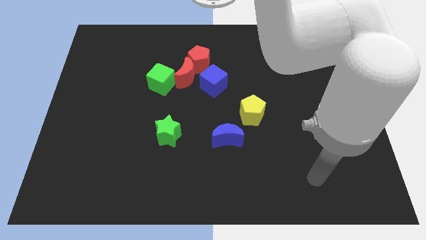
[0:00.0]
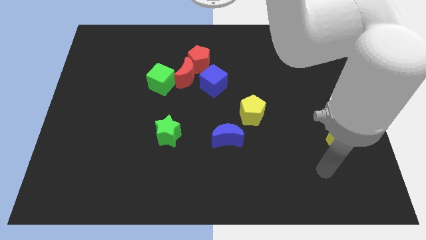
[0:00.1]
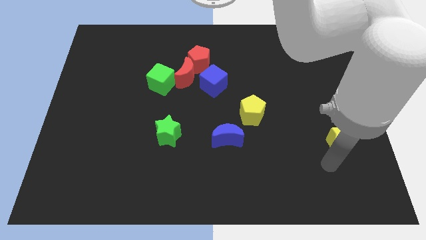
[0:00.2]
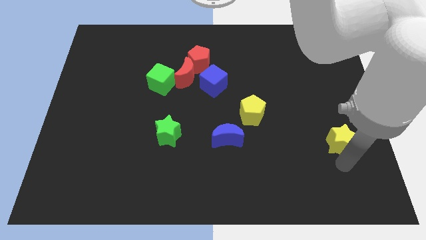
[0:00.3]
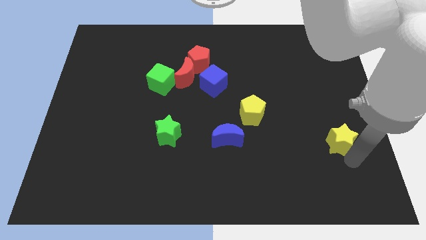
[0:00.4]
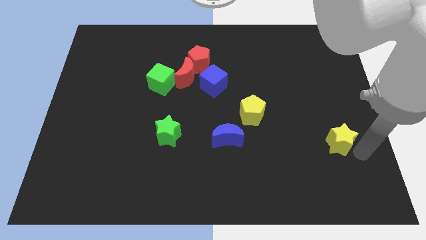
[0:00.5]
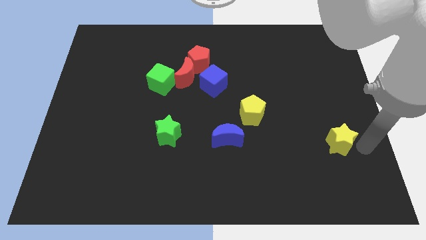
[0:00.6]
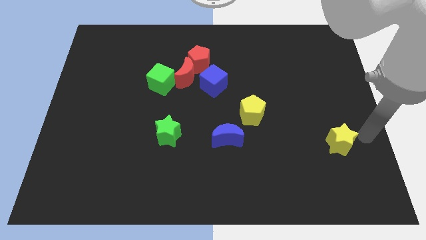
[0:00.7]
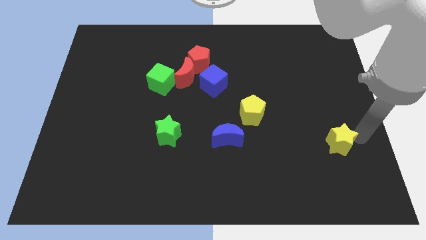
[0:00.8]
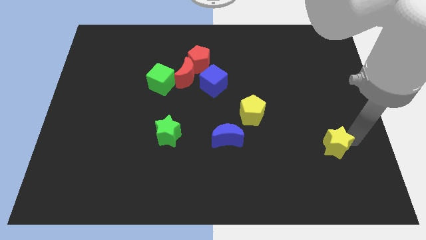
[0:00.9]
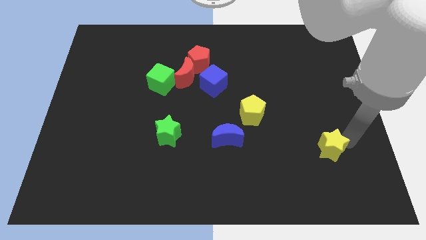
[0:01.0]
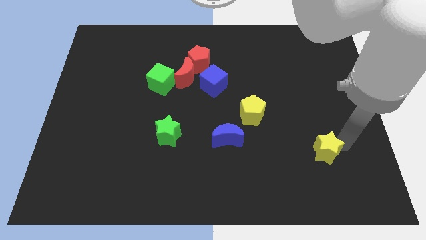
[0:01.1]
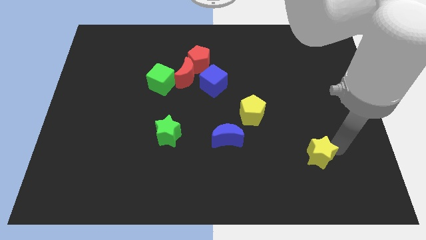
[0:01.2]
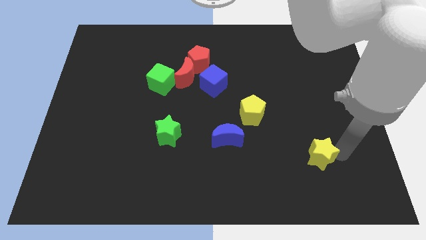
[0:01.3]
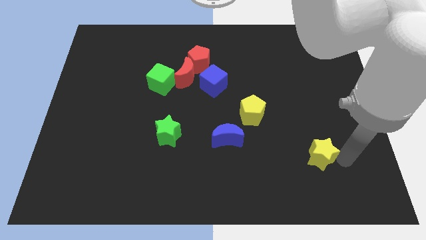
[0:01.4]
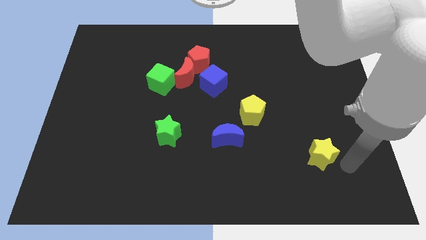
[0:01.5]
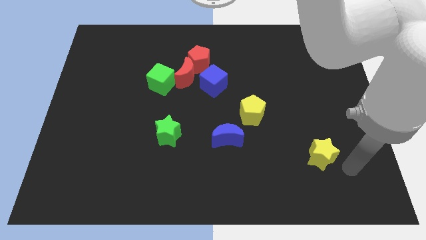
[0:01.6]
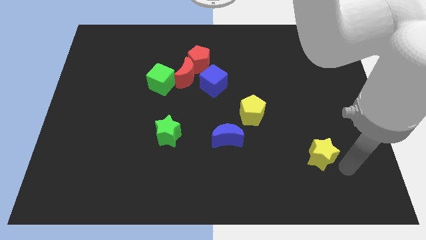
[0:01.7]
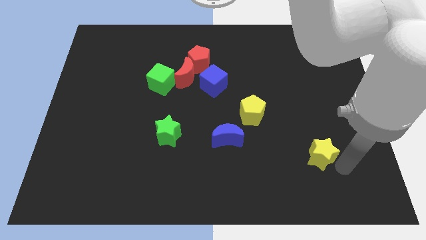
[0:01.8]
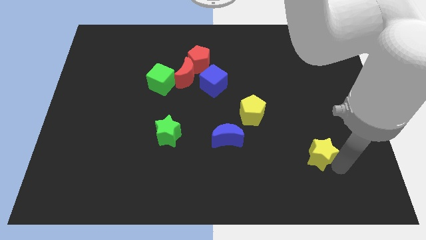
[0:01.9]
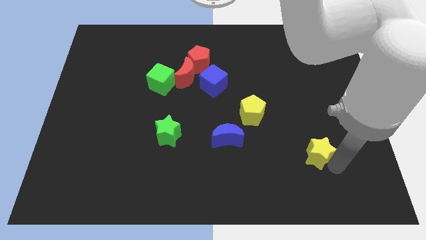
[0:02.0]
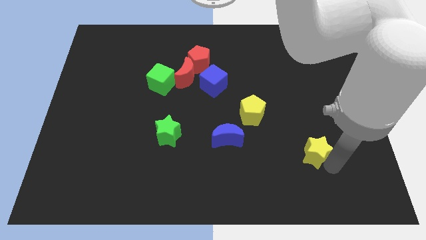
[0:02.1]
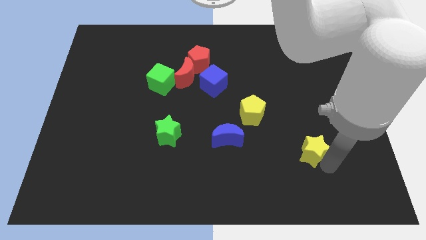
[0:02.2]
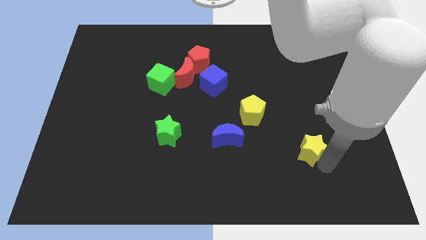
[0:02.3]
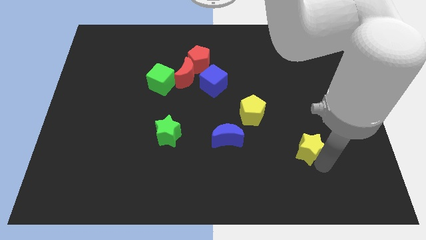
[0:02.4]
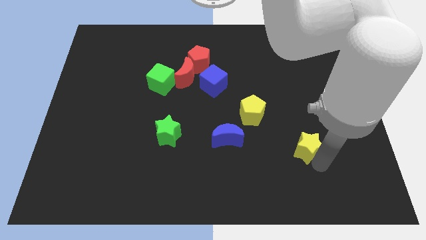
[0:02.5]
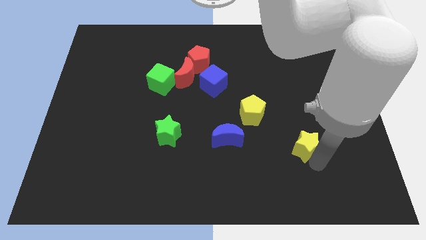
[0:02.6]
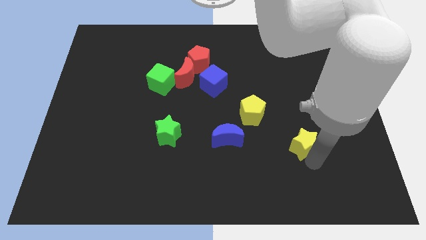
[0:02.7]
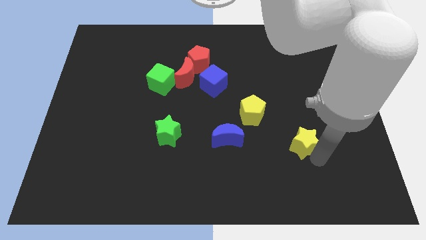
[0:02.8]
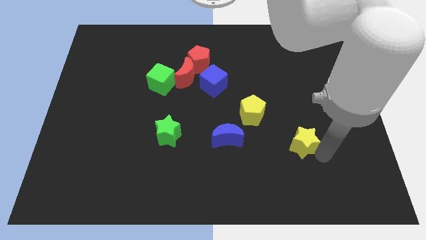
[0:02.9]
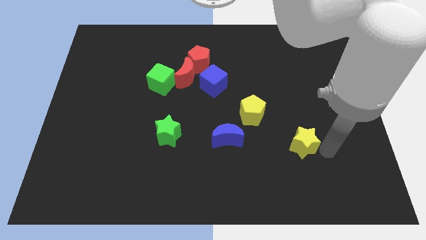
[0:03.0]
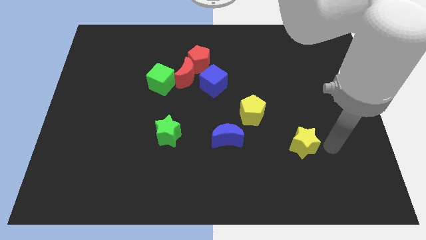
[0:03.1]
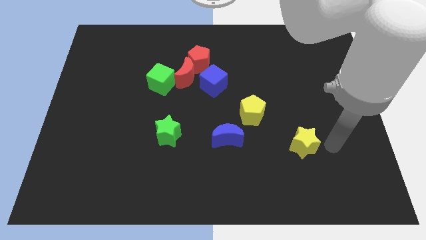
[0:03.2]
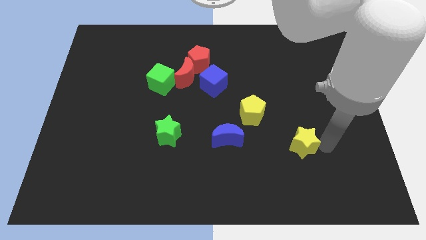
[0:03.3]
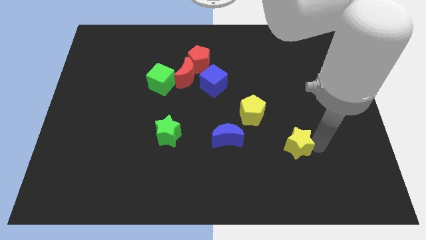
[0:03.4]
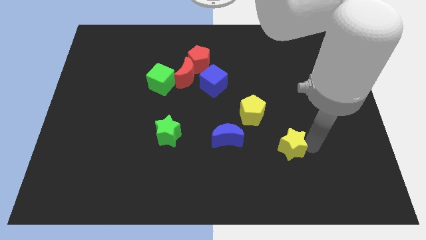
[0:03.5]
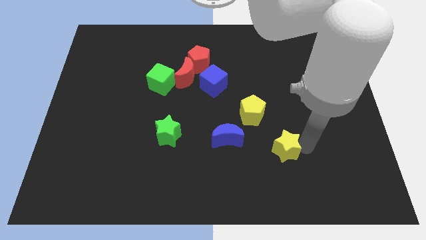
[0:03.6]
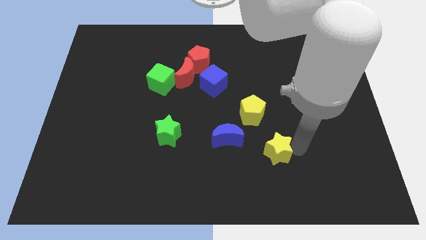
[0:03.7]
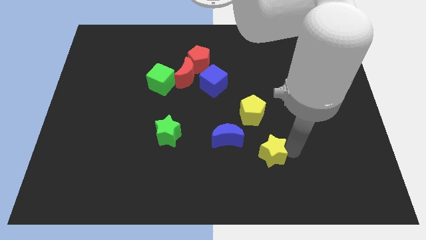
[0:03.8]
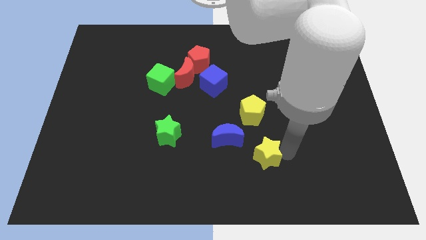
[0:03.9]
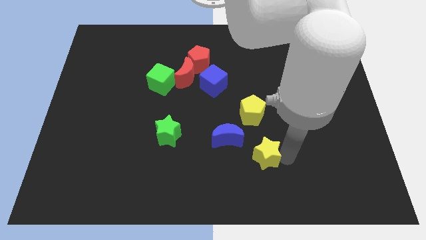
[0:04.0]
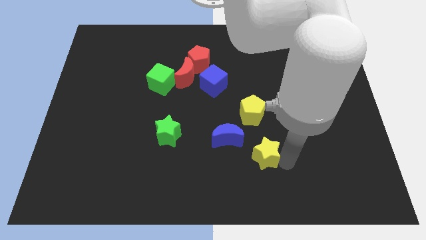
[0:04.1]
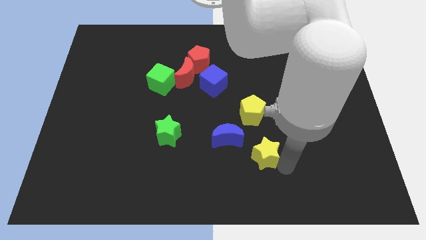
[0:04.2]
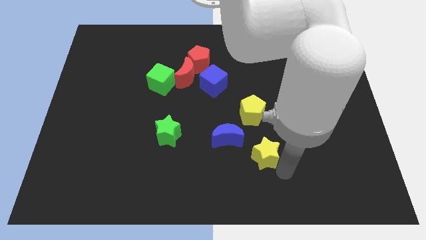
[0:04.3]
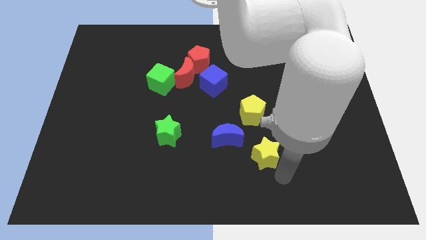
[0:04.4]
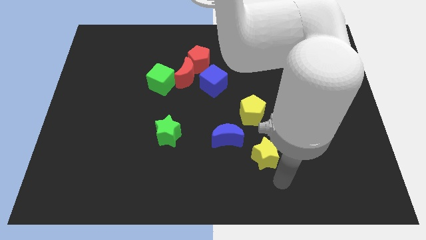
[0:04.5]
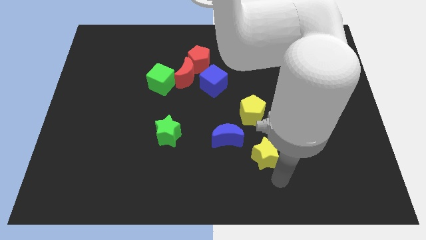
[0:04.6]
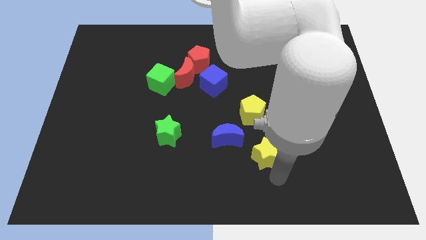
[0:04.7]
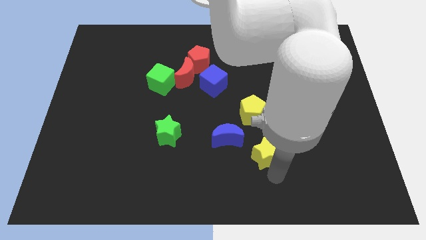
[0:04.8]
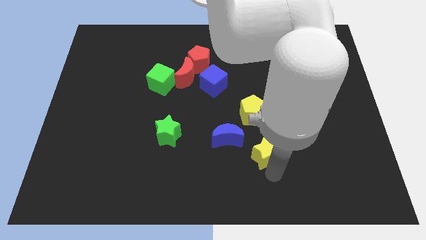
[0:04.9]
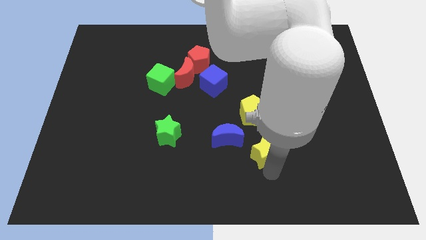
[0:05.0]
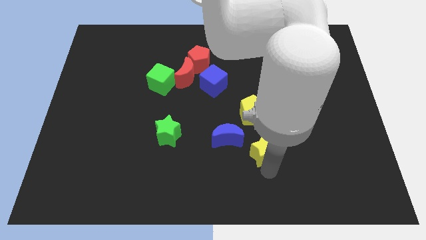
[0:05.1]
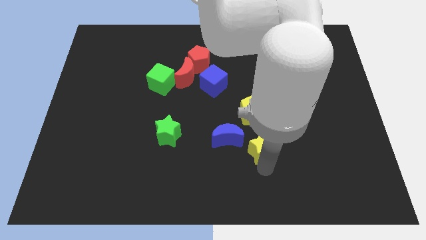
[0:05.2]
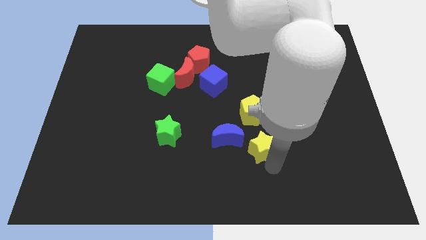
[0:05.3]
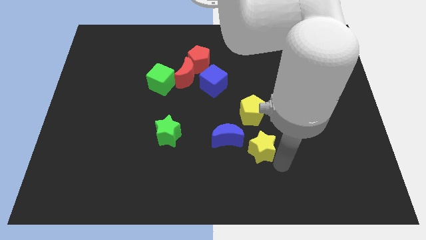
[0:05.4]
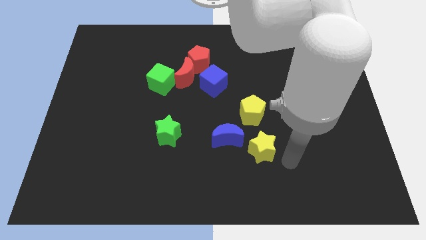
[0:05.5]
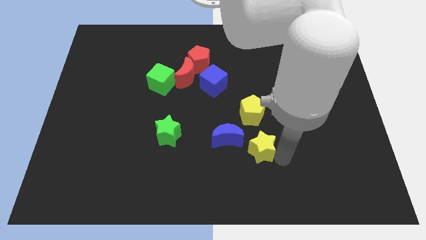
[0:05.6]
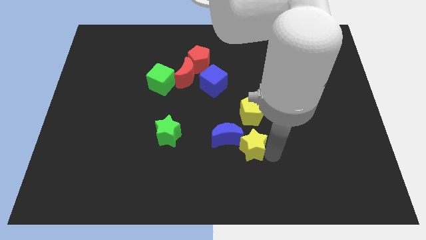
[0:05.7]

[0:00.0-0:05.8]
put the yellow star next to the blue moon

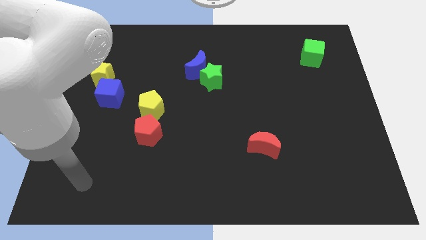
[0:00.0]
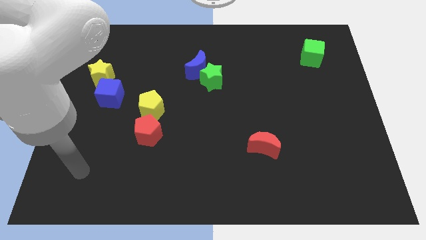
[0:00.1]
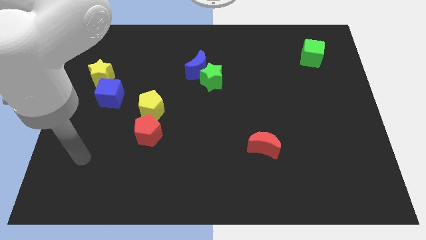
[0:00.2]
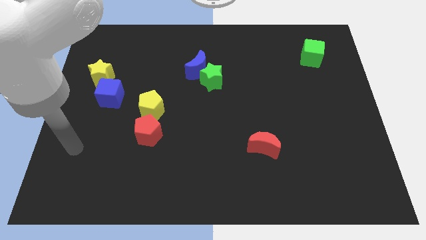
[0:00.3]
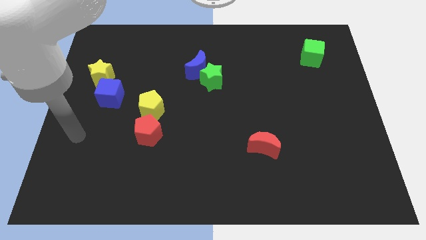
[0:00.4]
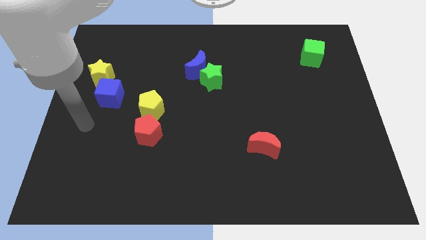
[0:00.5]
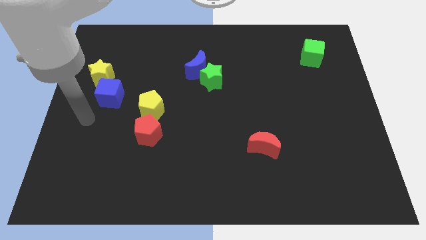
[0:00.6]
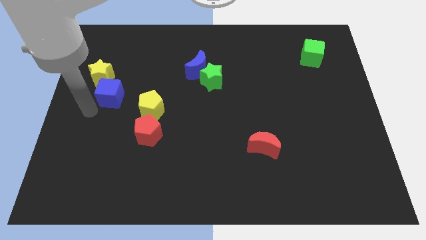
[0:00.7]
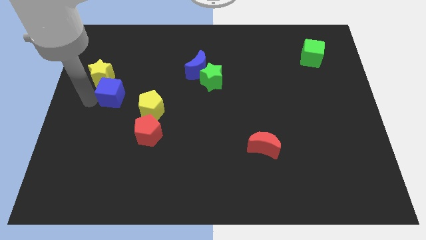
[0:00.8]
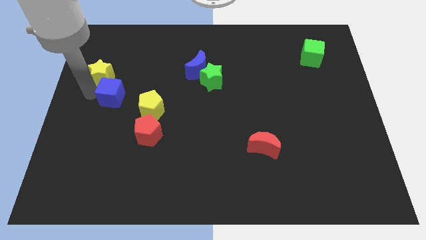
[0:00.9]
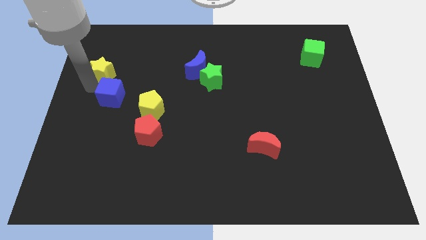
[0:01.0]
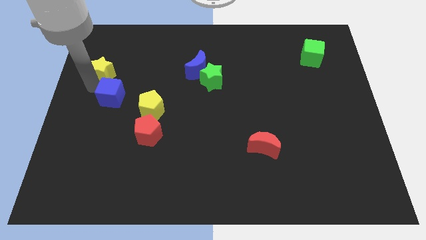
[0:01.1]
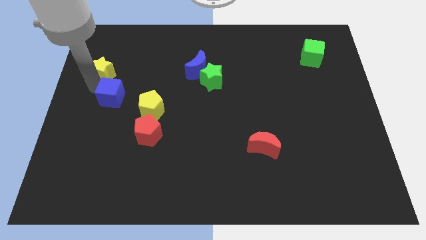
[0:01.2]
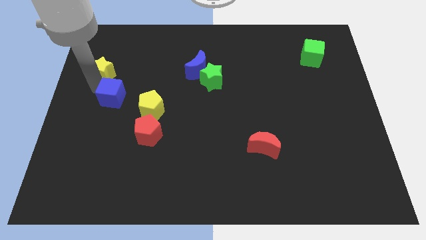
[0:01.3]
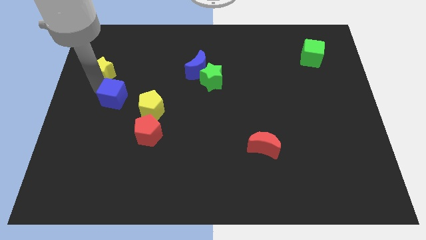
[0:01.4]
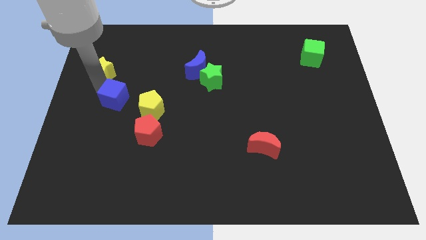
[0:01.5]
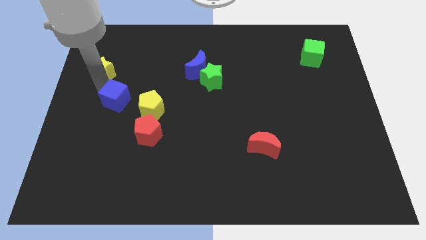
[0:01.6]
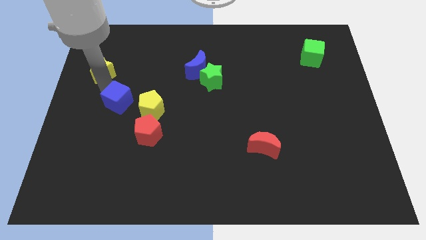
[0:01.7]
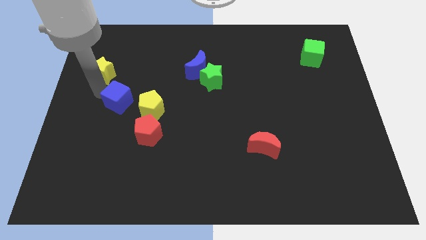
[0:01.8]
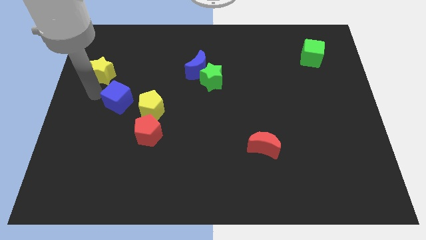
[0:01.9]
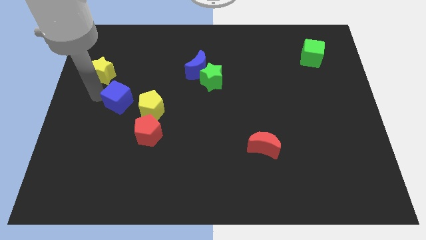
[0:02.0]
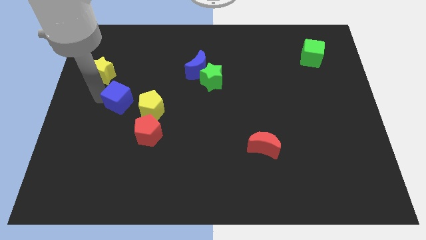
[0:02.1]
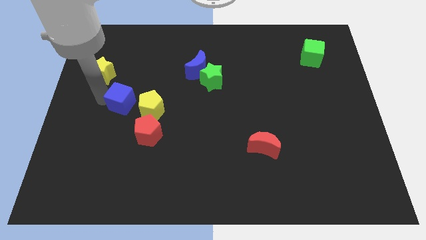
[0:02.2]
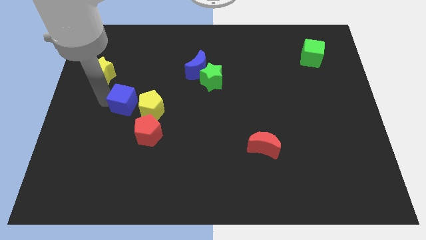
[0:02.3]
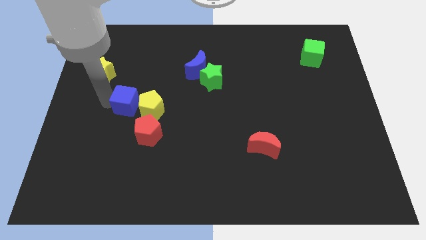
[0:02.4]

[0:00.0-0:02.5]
push the blue cube next to the yellow pentagon

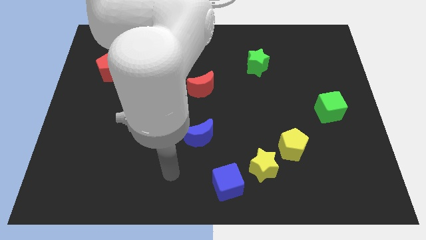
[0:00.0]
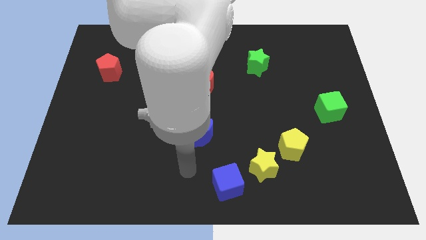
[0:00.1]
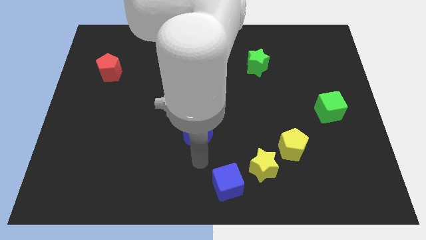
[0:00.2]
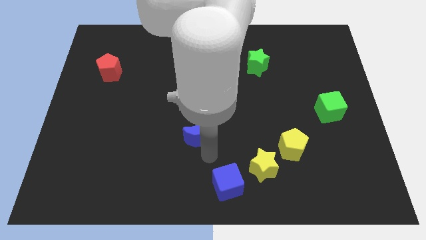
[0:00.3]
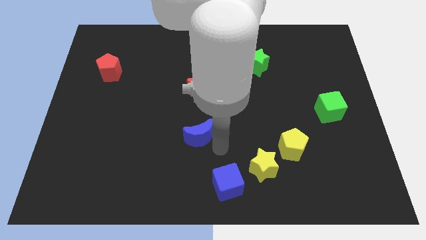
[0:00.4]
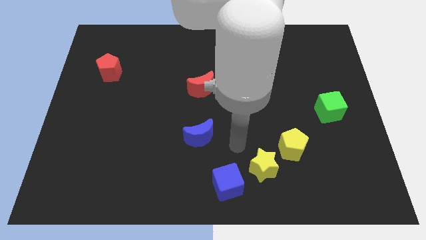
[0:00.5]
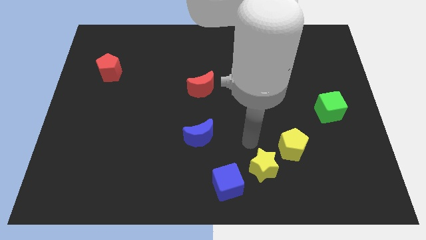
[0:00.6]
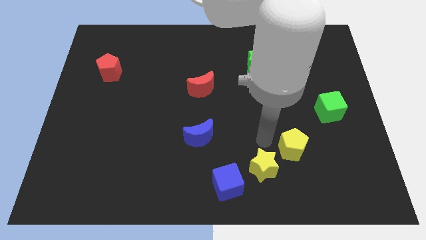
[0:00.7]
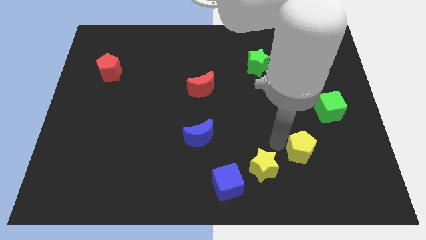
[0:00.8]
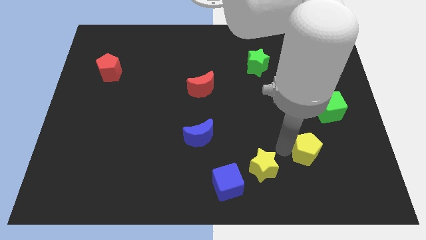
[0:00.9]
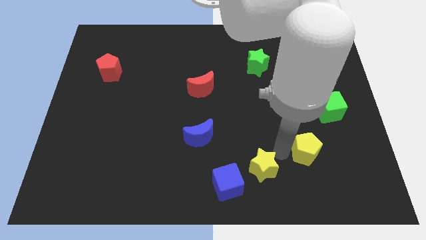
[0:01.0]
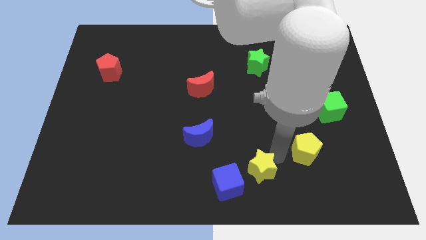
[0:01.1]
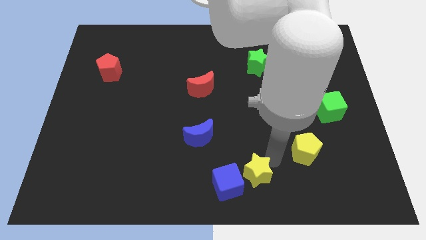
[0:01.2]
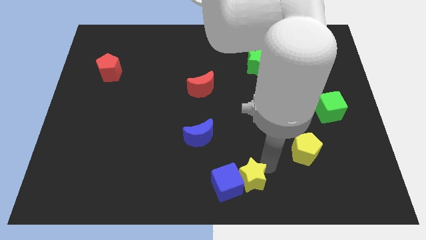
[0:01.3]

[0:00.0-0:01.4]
move the yellow star towards the blue cube
